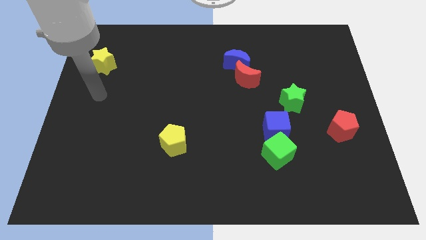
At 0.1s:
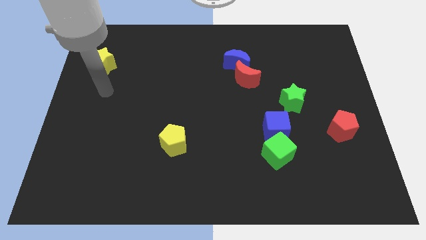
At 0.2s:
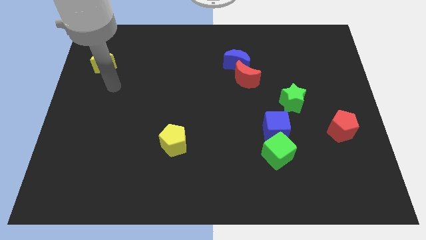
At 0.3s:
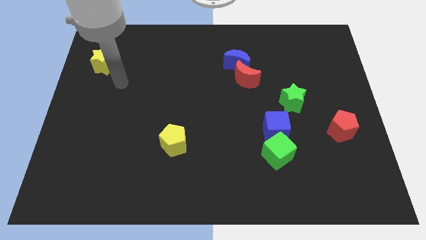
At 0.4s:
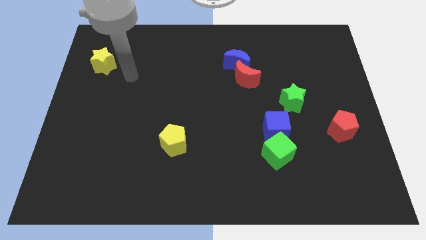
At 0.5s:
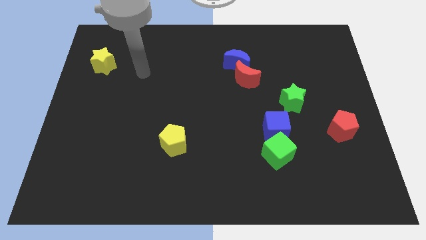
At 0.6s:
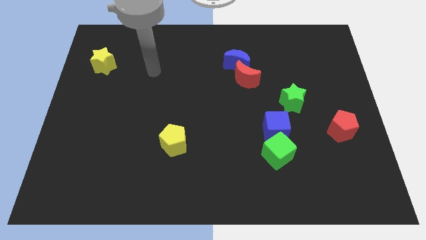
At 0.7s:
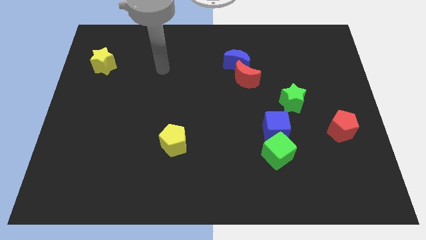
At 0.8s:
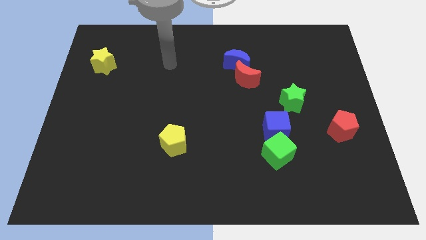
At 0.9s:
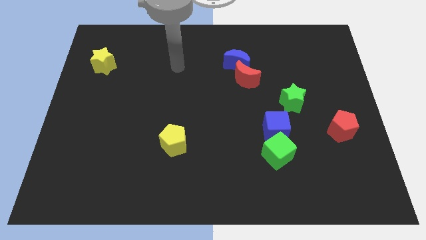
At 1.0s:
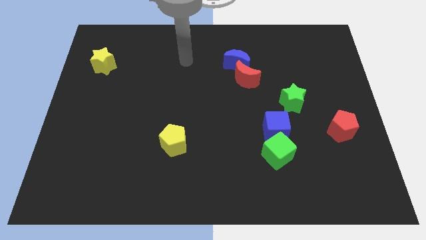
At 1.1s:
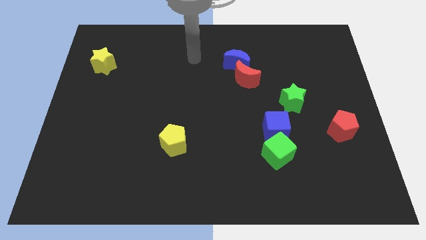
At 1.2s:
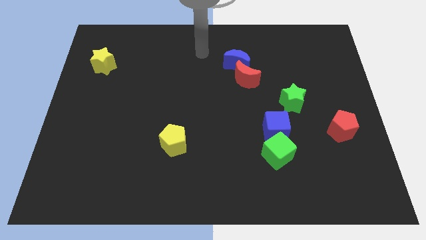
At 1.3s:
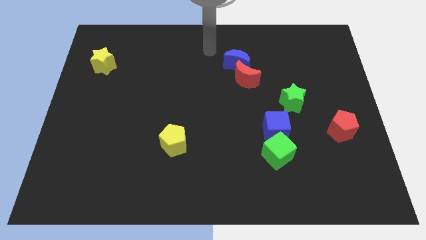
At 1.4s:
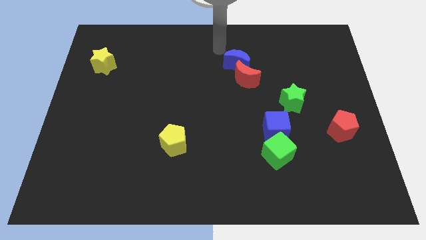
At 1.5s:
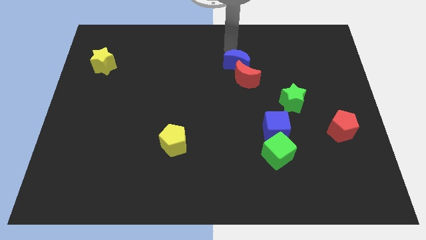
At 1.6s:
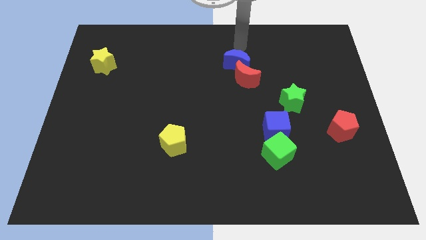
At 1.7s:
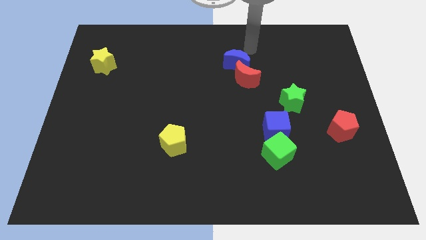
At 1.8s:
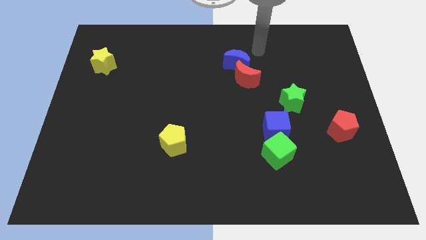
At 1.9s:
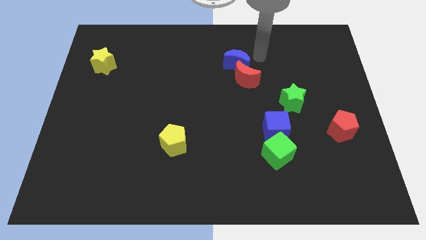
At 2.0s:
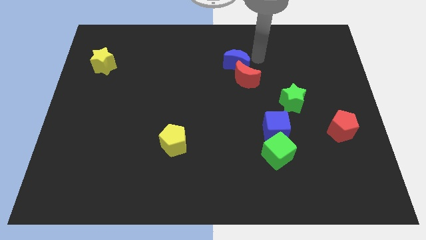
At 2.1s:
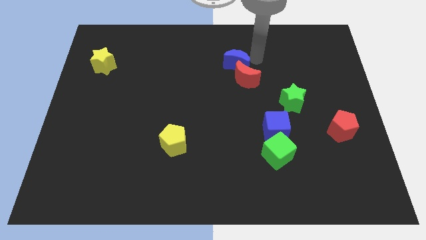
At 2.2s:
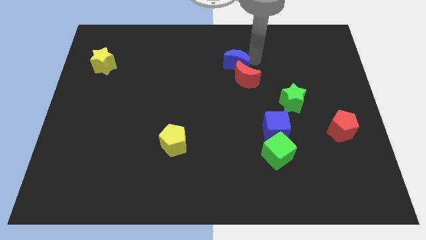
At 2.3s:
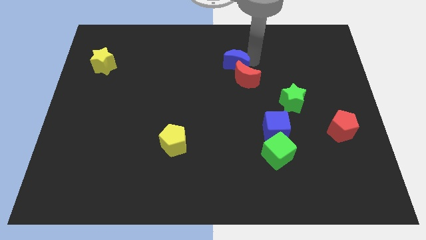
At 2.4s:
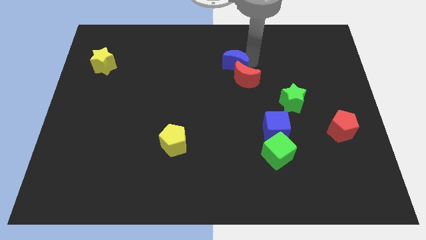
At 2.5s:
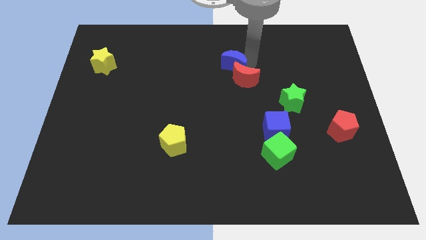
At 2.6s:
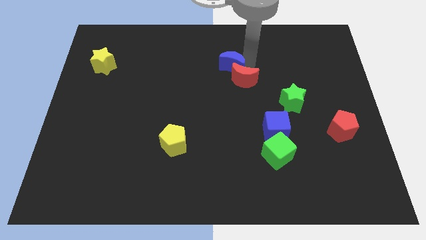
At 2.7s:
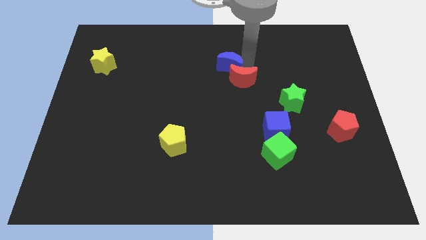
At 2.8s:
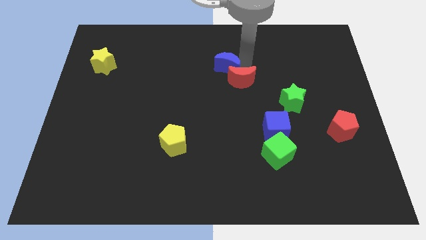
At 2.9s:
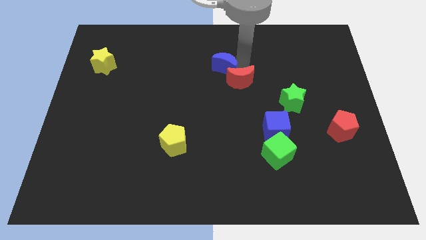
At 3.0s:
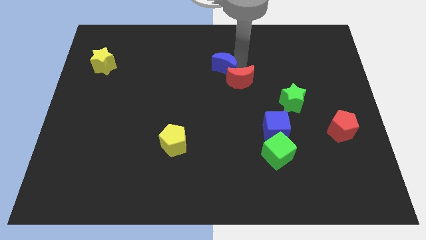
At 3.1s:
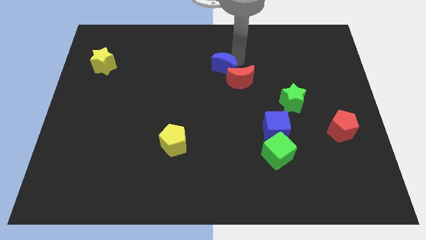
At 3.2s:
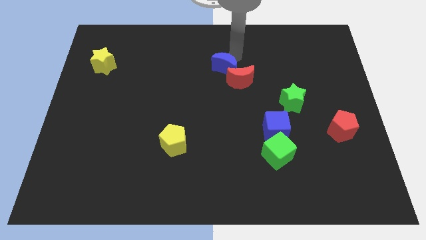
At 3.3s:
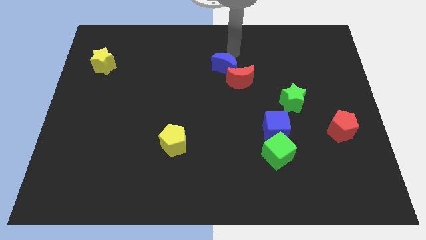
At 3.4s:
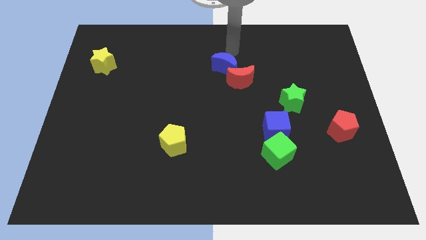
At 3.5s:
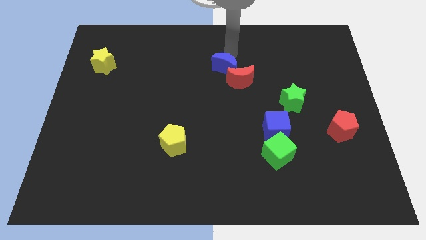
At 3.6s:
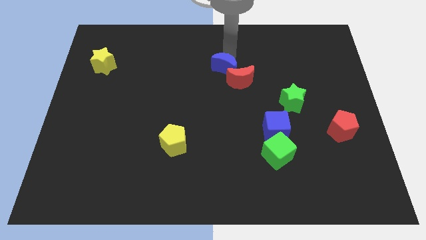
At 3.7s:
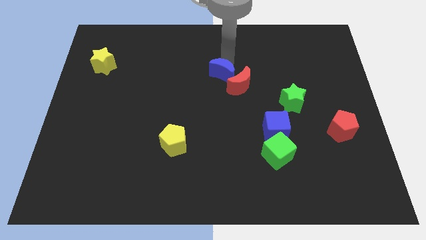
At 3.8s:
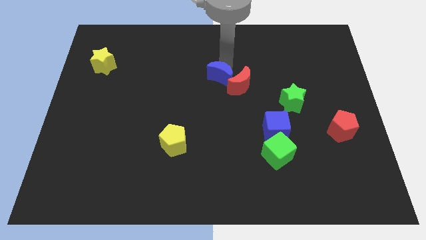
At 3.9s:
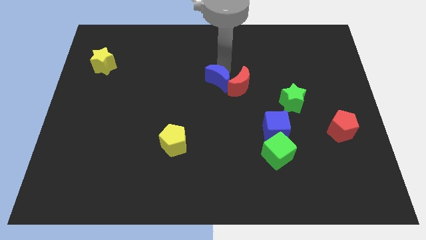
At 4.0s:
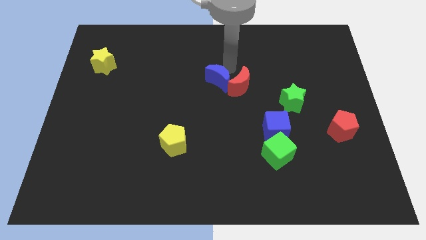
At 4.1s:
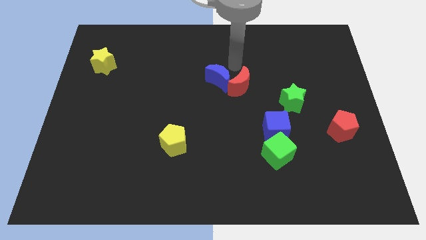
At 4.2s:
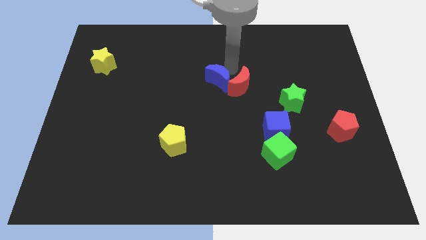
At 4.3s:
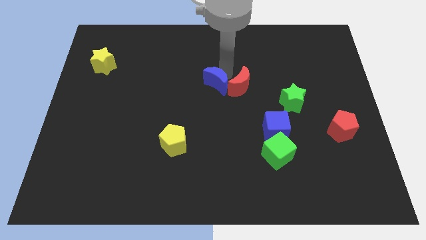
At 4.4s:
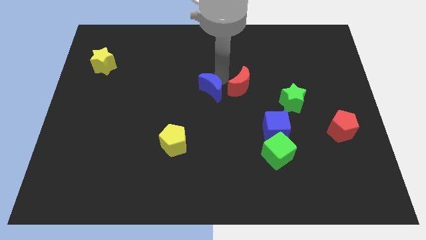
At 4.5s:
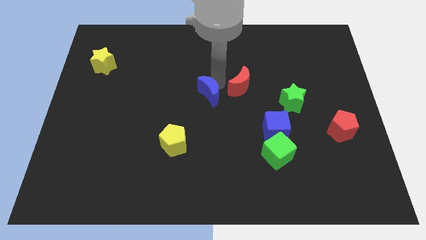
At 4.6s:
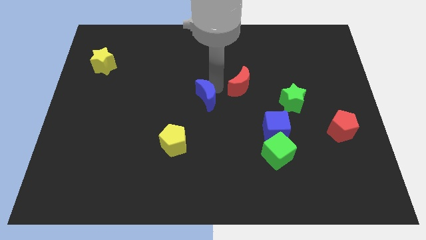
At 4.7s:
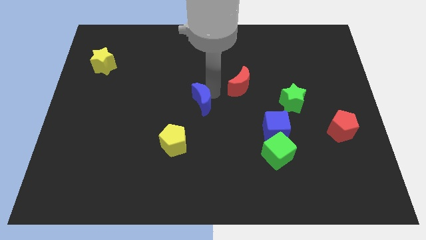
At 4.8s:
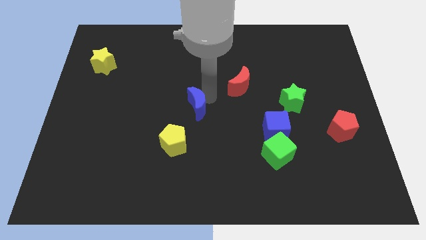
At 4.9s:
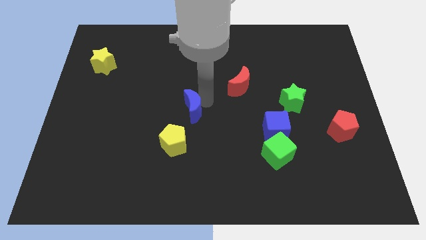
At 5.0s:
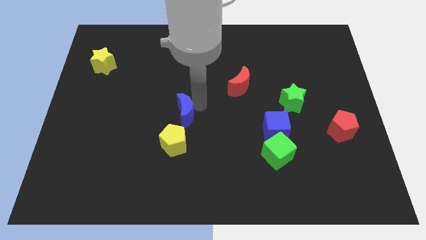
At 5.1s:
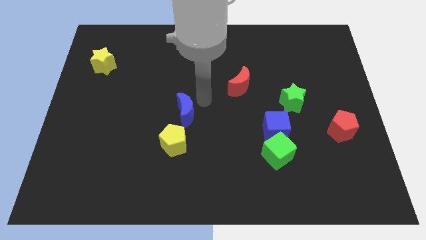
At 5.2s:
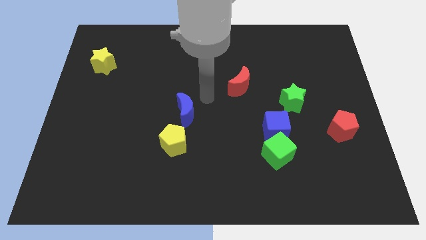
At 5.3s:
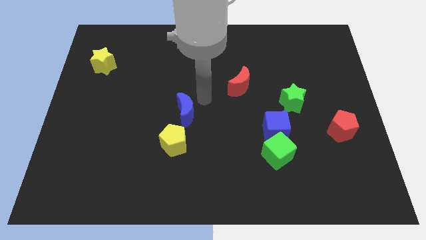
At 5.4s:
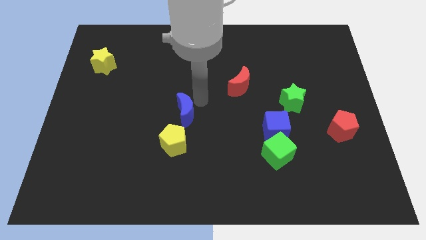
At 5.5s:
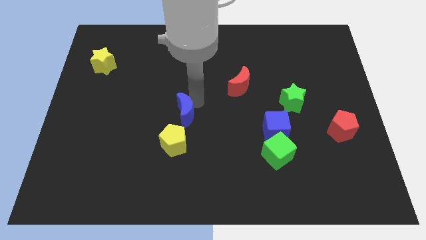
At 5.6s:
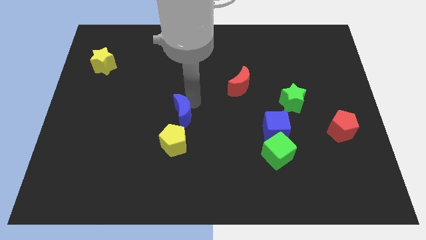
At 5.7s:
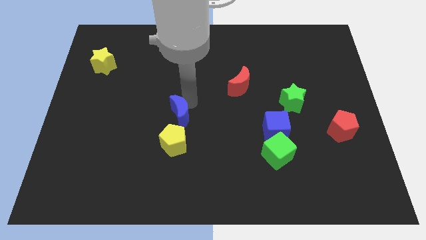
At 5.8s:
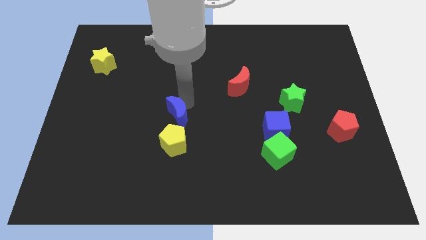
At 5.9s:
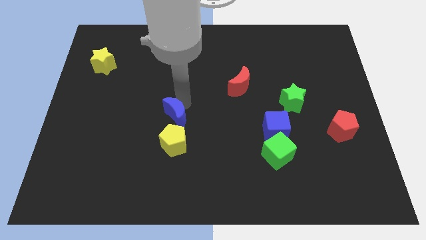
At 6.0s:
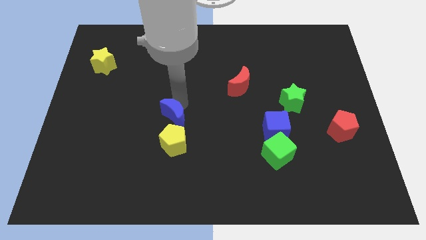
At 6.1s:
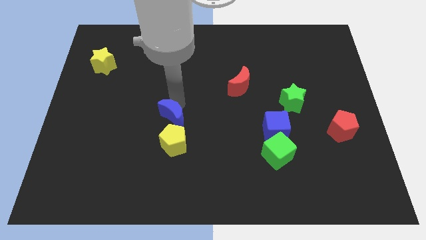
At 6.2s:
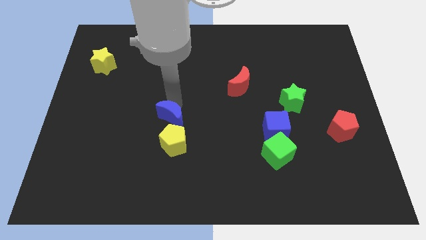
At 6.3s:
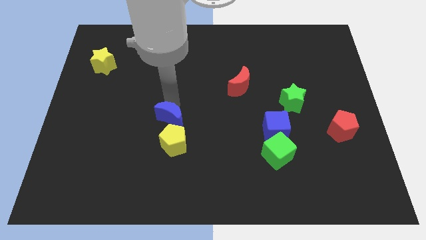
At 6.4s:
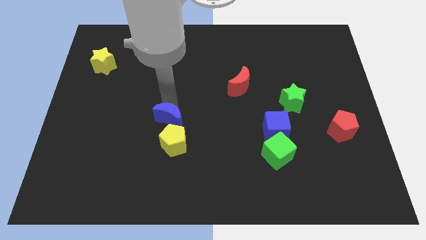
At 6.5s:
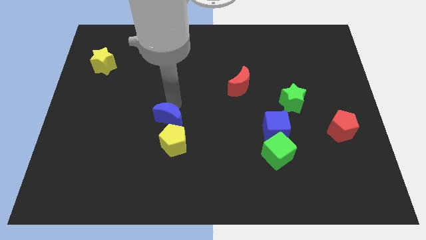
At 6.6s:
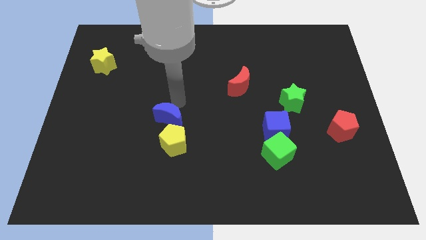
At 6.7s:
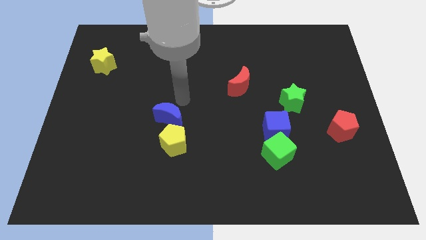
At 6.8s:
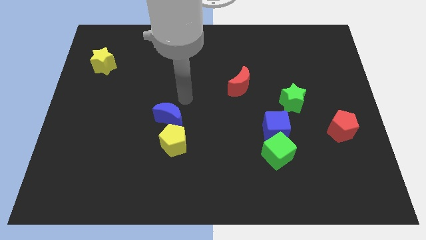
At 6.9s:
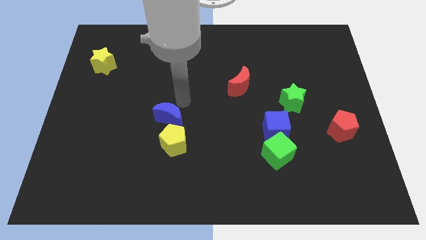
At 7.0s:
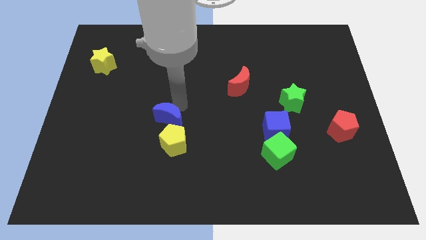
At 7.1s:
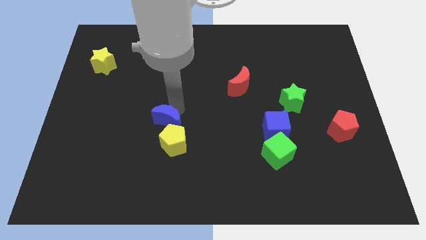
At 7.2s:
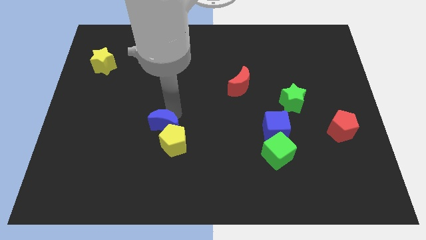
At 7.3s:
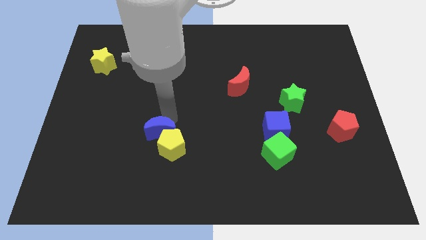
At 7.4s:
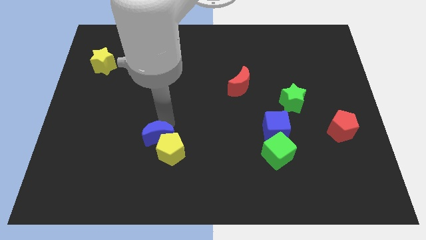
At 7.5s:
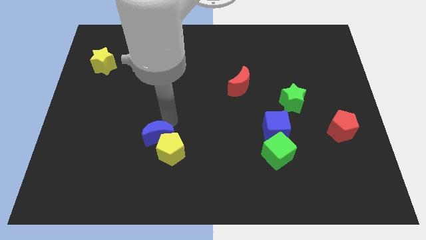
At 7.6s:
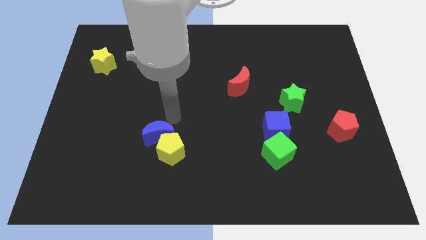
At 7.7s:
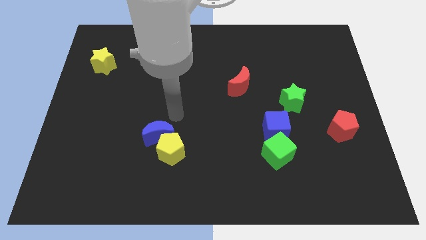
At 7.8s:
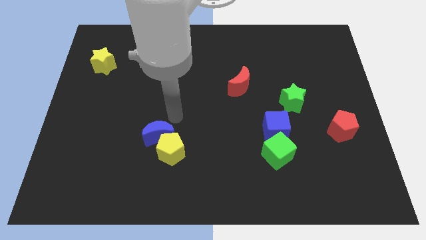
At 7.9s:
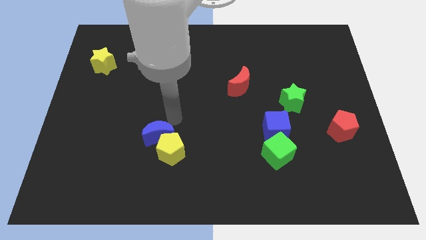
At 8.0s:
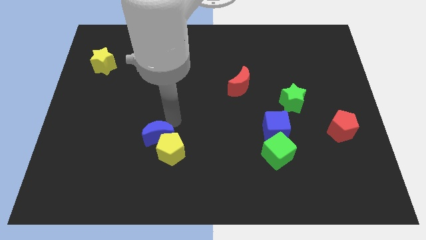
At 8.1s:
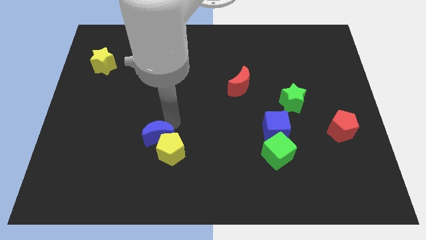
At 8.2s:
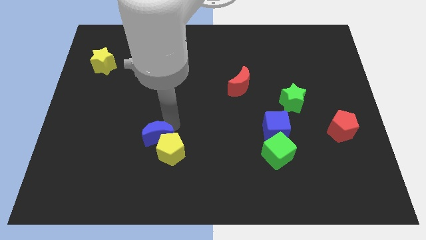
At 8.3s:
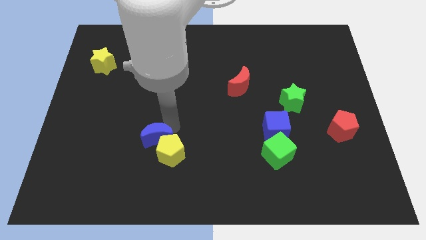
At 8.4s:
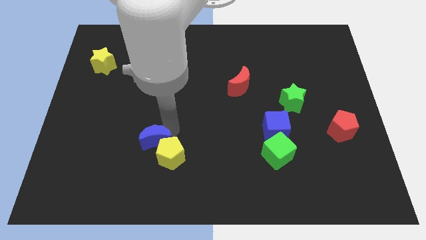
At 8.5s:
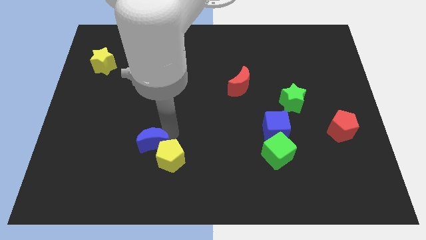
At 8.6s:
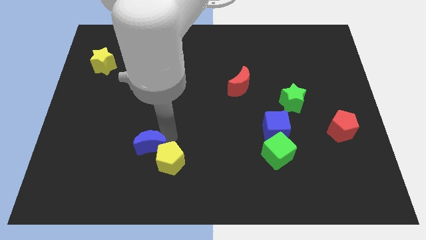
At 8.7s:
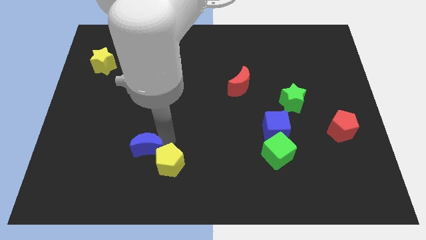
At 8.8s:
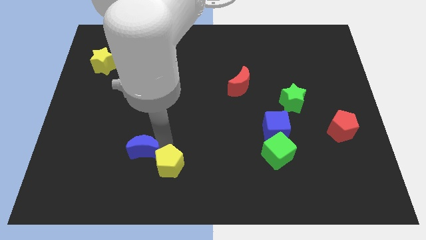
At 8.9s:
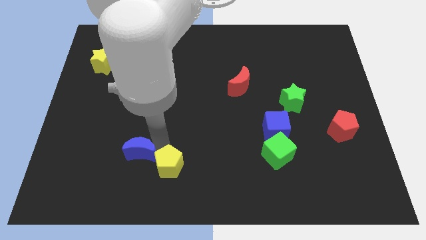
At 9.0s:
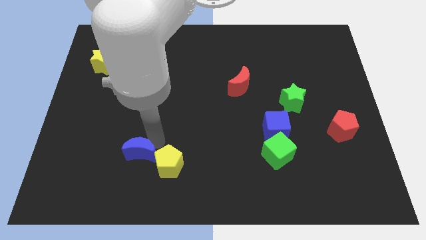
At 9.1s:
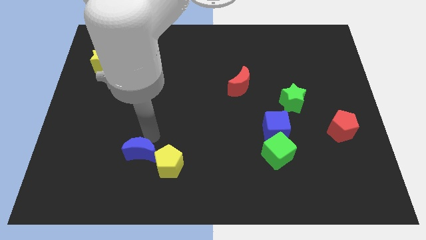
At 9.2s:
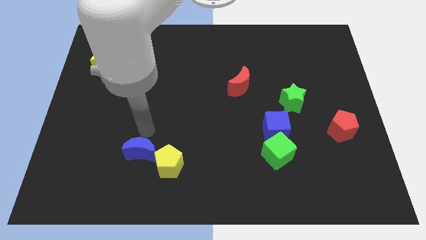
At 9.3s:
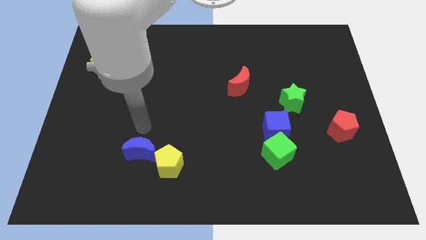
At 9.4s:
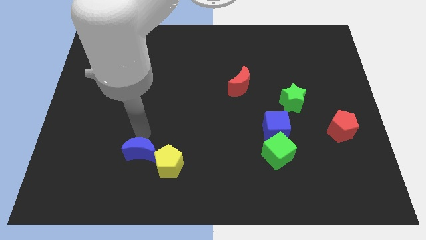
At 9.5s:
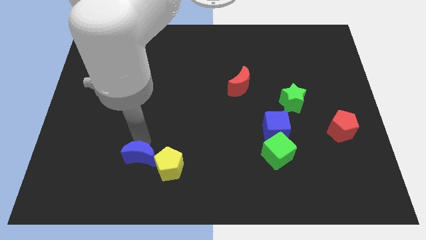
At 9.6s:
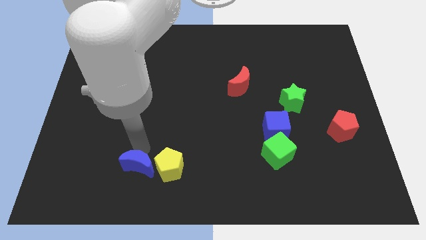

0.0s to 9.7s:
move the blue moon diagonally down and to the left of the yellow pentagon
